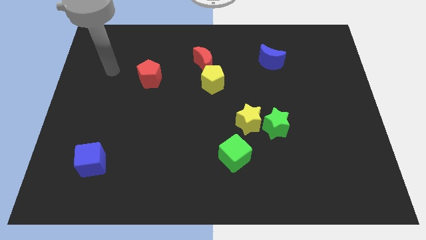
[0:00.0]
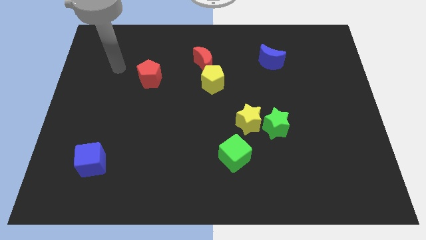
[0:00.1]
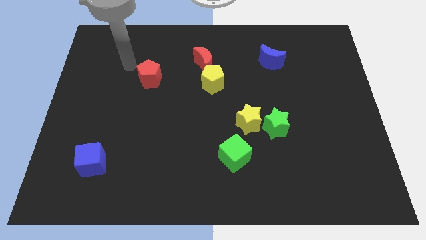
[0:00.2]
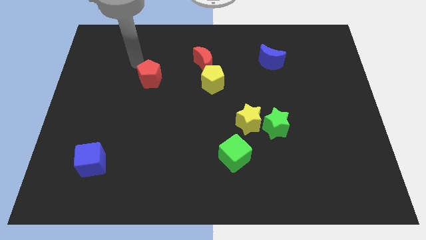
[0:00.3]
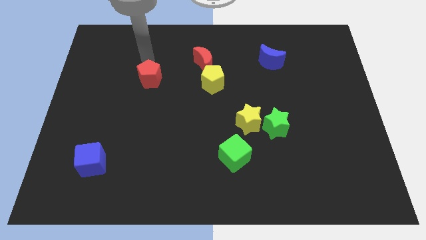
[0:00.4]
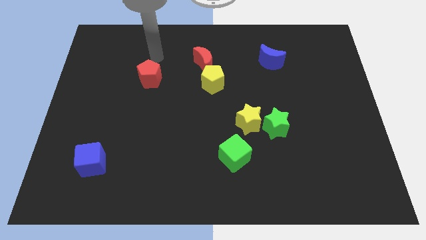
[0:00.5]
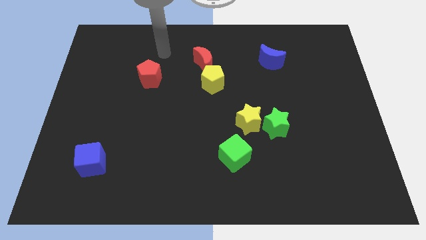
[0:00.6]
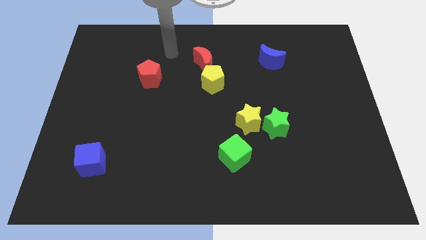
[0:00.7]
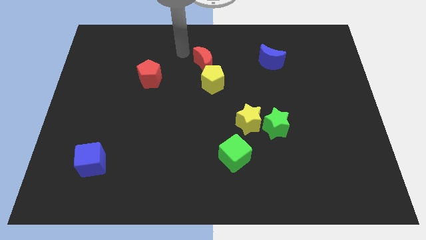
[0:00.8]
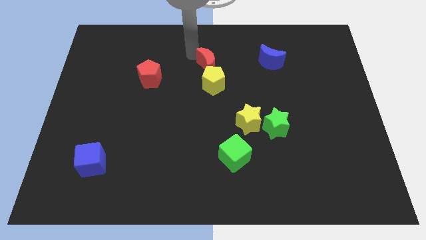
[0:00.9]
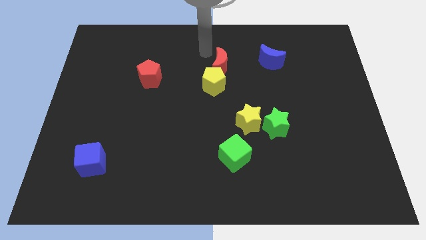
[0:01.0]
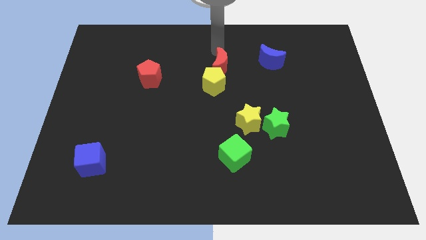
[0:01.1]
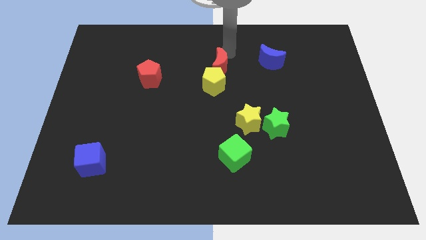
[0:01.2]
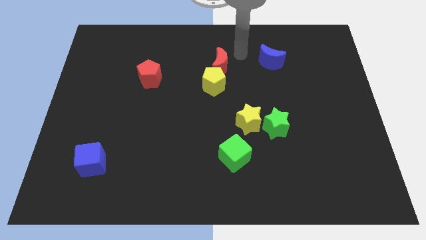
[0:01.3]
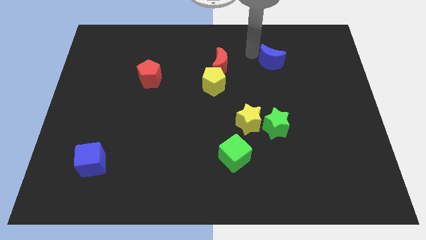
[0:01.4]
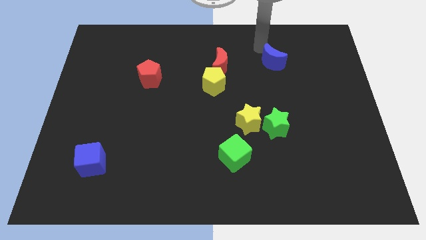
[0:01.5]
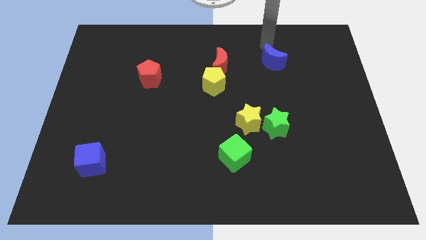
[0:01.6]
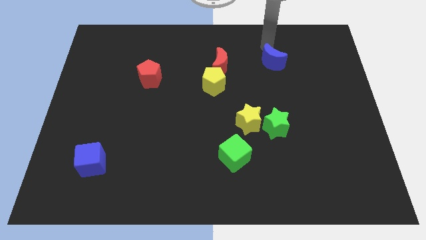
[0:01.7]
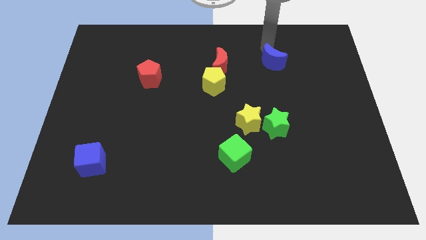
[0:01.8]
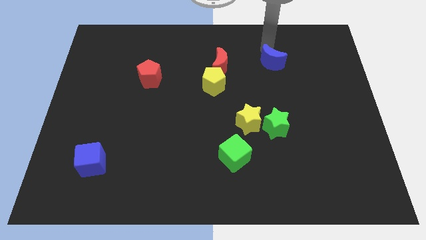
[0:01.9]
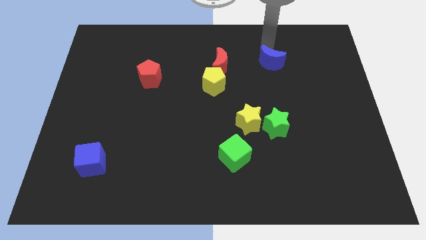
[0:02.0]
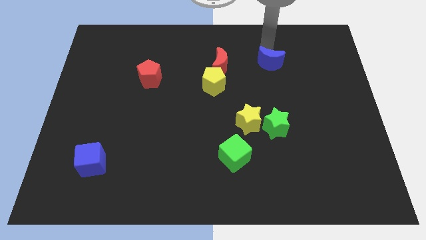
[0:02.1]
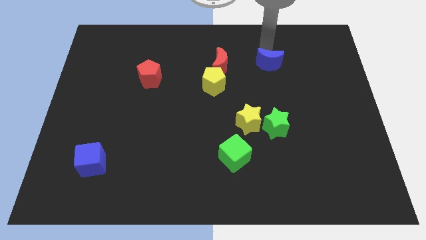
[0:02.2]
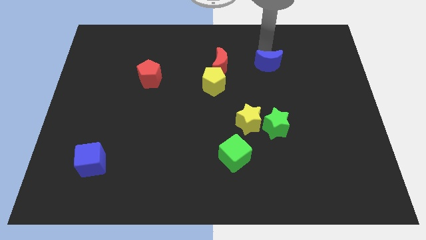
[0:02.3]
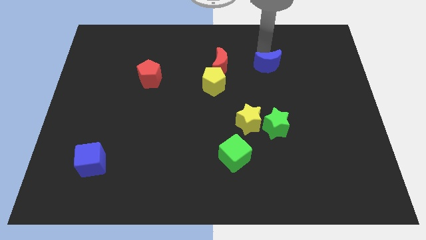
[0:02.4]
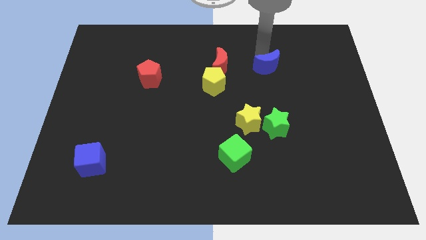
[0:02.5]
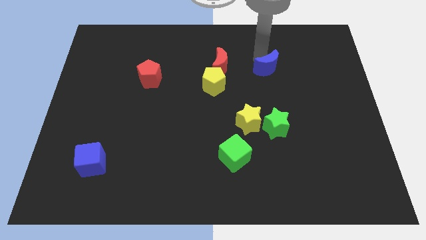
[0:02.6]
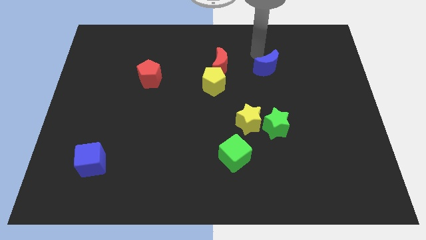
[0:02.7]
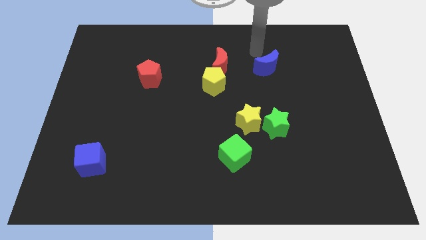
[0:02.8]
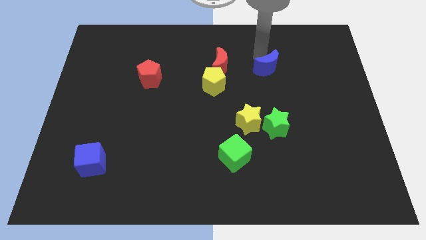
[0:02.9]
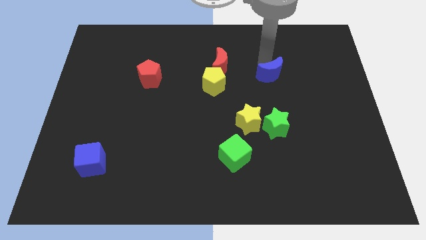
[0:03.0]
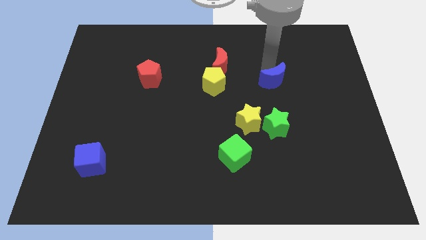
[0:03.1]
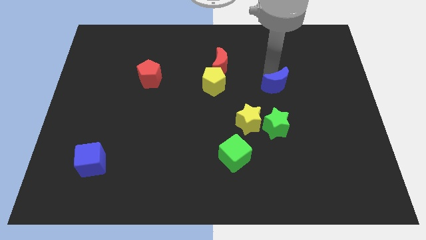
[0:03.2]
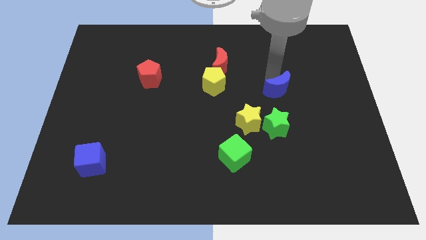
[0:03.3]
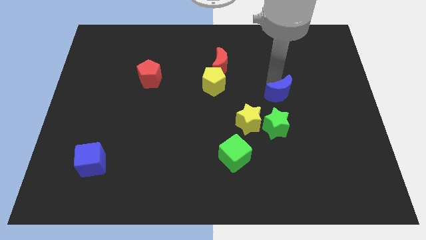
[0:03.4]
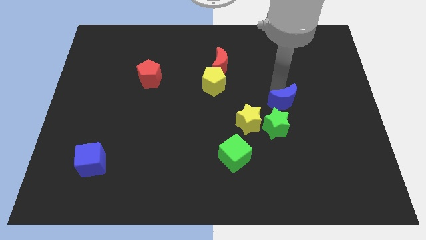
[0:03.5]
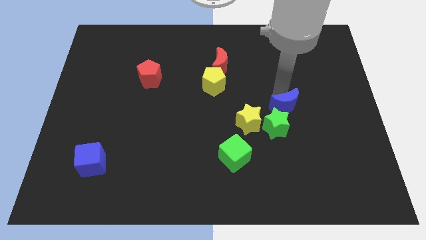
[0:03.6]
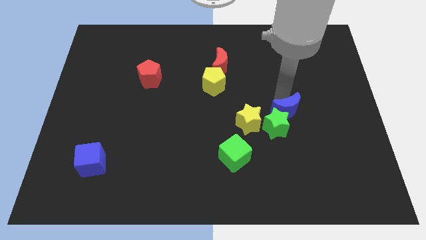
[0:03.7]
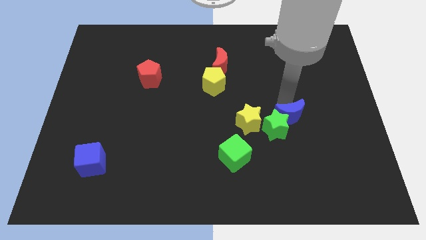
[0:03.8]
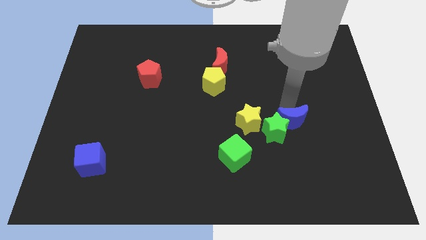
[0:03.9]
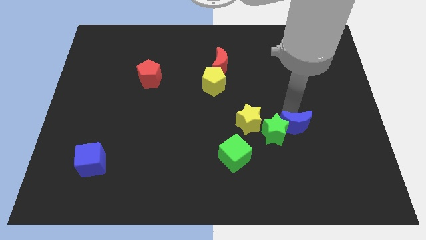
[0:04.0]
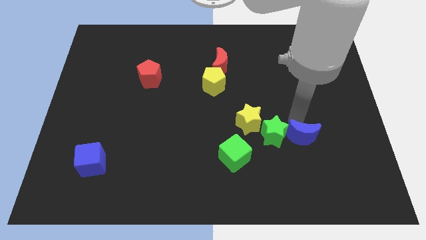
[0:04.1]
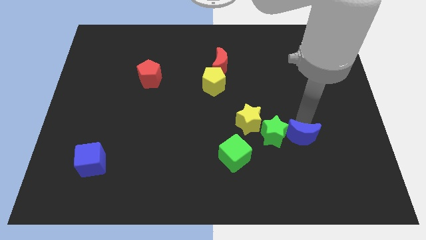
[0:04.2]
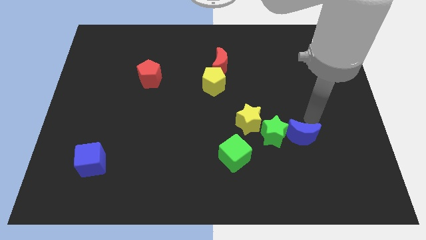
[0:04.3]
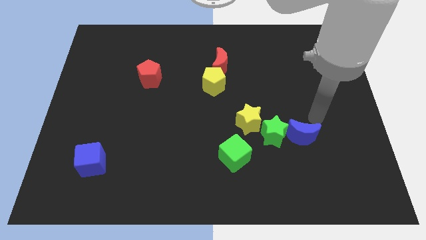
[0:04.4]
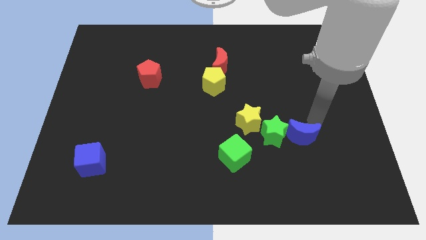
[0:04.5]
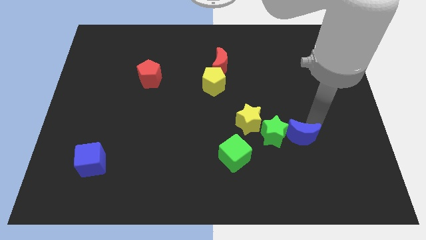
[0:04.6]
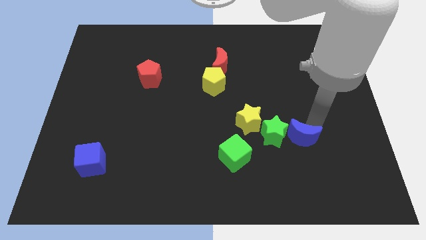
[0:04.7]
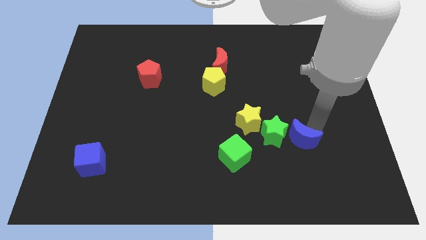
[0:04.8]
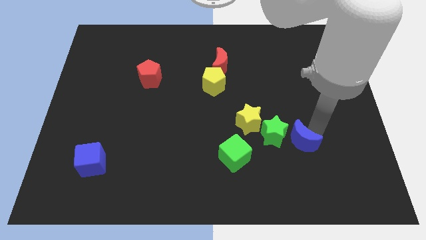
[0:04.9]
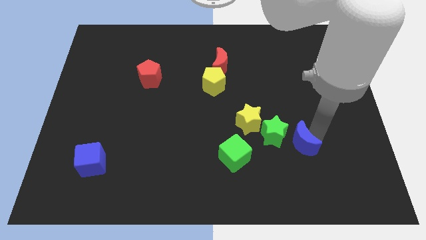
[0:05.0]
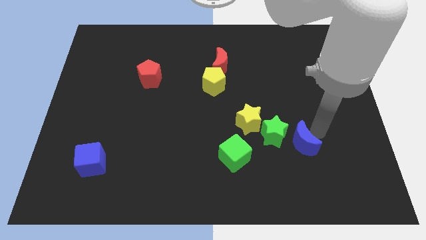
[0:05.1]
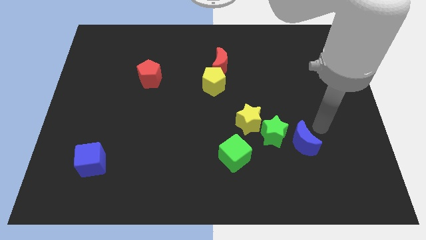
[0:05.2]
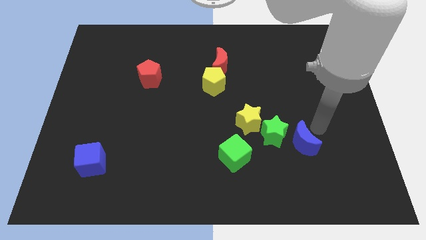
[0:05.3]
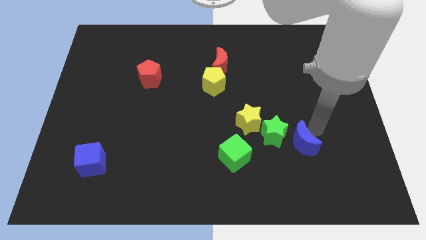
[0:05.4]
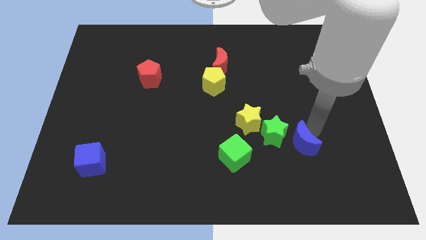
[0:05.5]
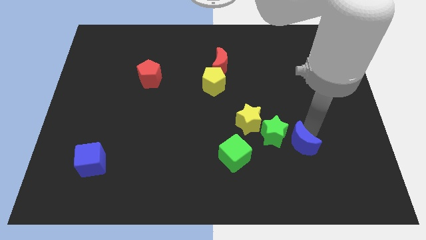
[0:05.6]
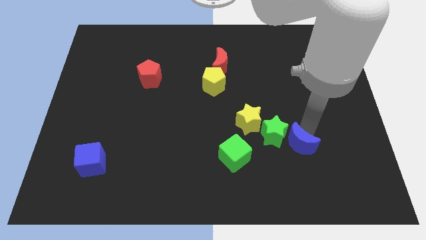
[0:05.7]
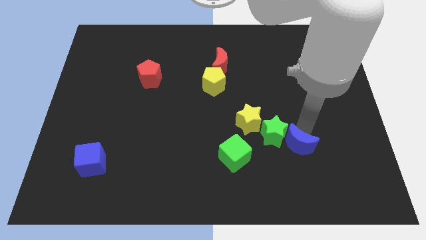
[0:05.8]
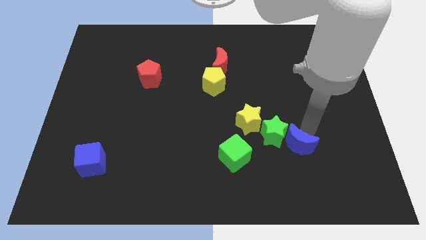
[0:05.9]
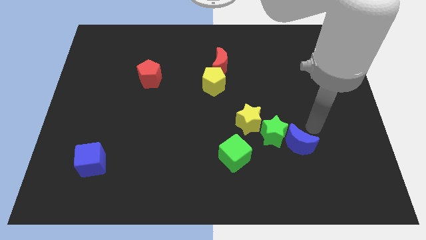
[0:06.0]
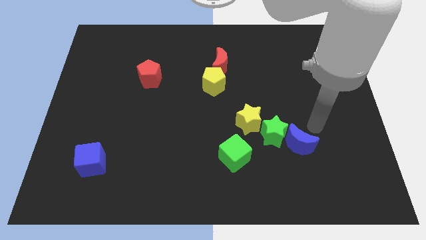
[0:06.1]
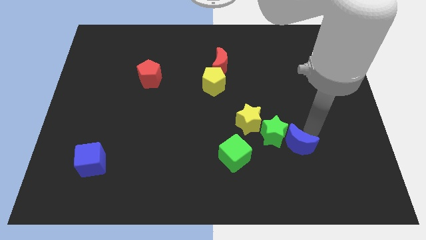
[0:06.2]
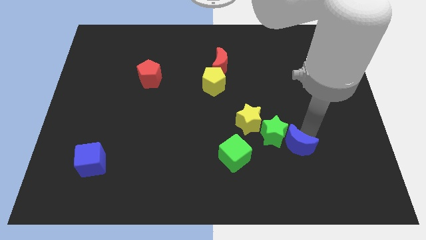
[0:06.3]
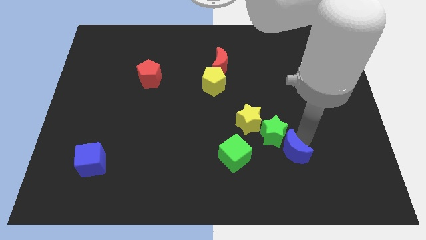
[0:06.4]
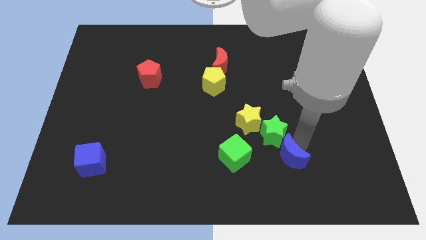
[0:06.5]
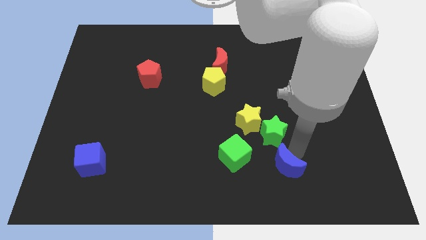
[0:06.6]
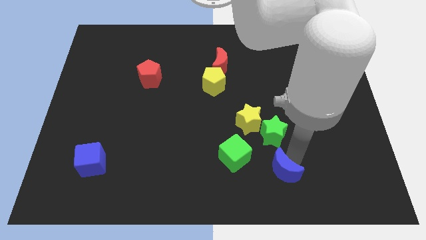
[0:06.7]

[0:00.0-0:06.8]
put the blue moon to the bottom right of the green cube

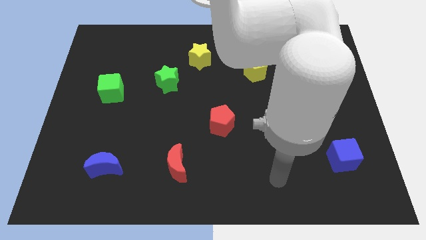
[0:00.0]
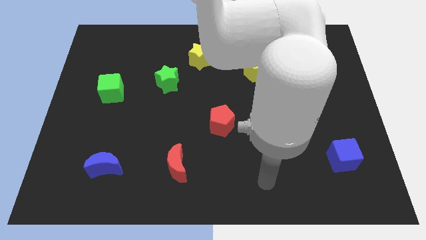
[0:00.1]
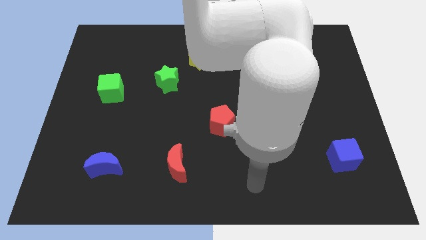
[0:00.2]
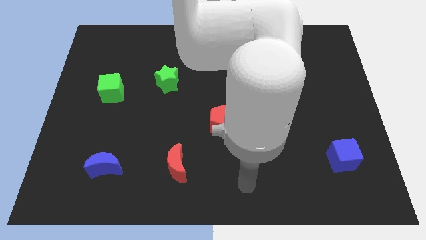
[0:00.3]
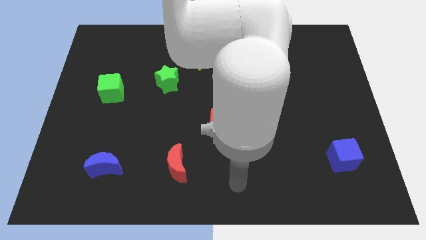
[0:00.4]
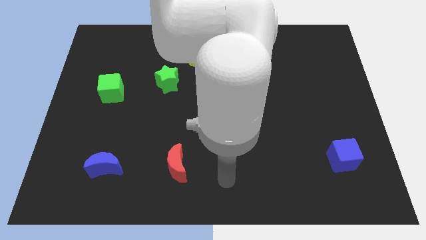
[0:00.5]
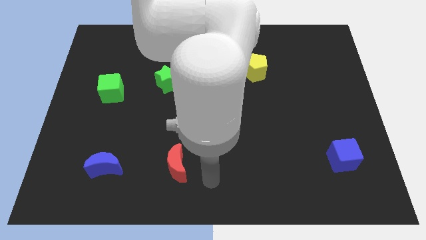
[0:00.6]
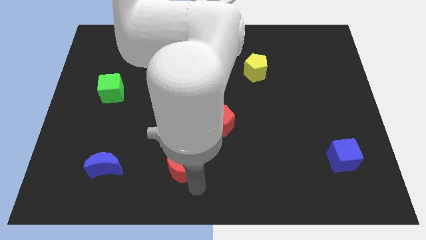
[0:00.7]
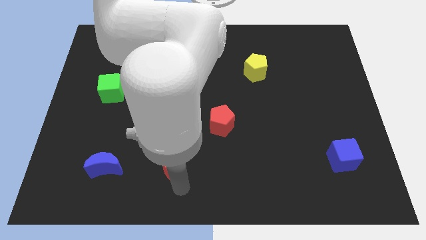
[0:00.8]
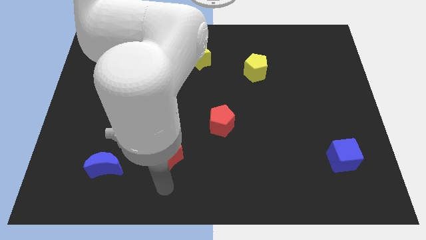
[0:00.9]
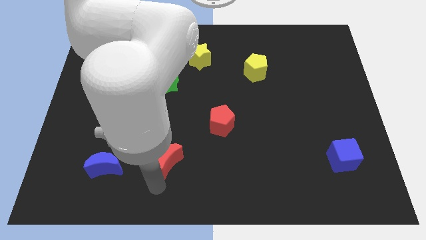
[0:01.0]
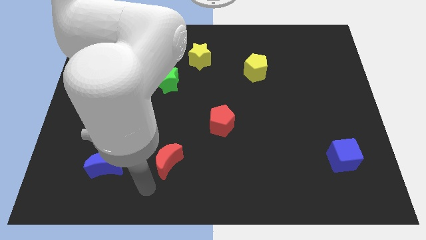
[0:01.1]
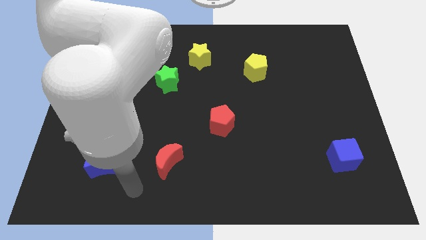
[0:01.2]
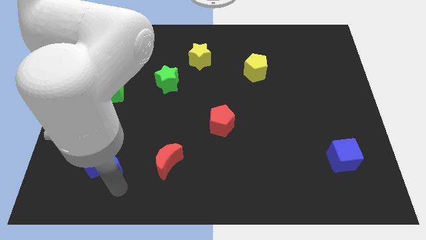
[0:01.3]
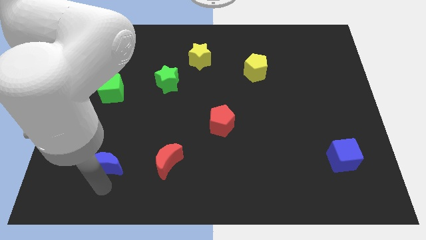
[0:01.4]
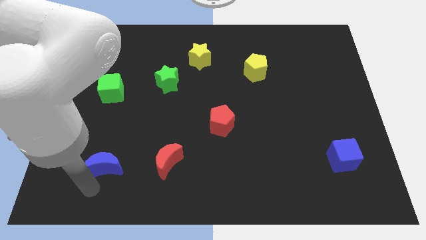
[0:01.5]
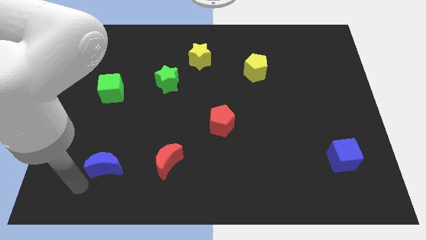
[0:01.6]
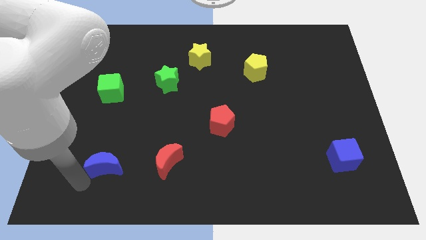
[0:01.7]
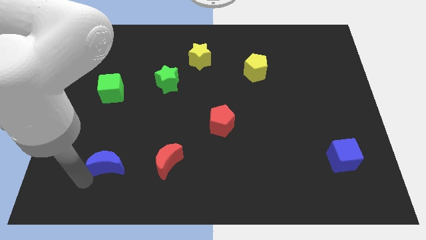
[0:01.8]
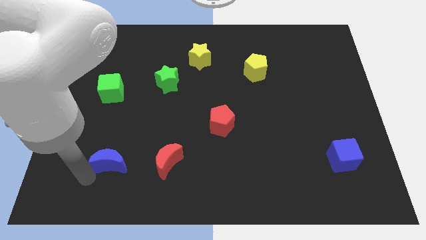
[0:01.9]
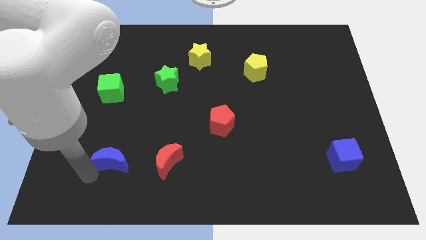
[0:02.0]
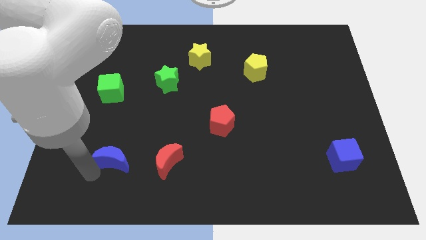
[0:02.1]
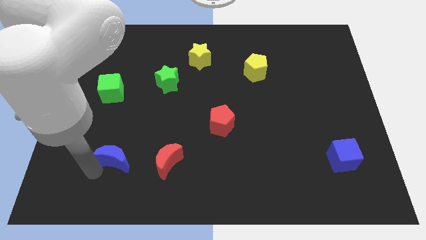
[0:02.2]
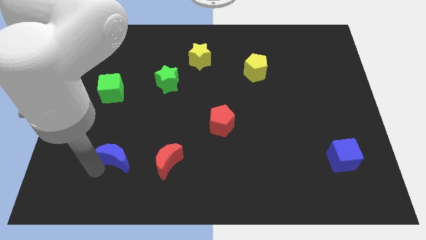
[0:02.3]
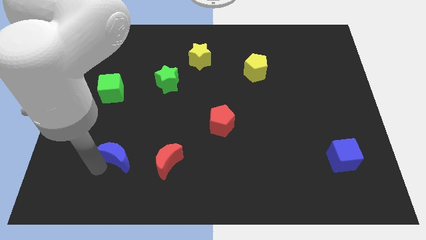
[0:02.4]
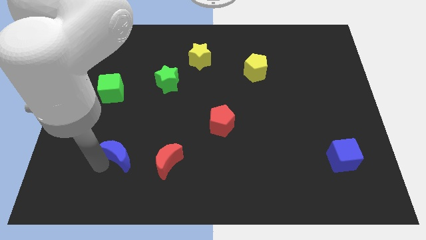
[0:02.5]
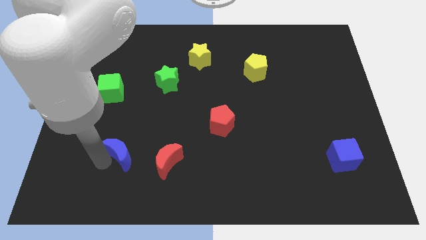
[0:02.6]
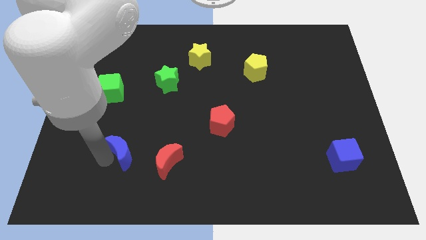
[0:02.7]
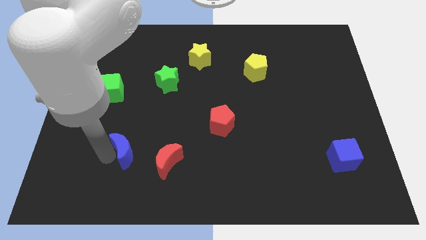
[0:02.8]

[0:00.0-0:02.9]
slide the blue moon diagonally up and to the left of the red moon
